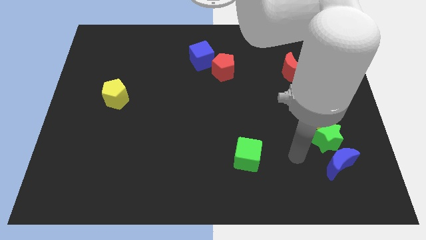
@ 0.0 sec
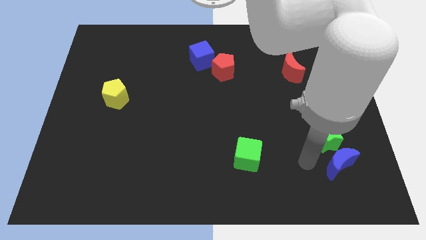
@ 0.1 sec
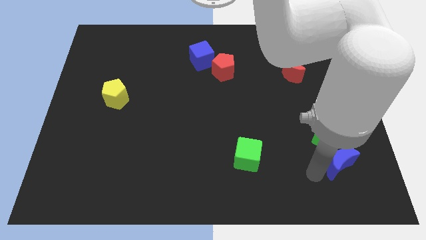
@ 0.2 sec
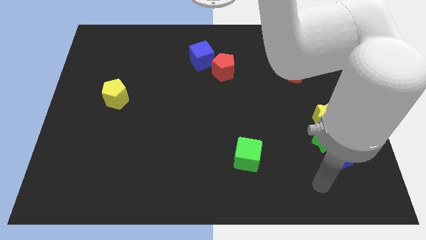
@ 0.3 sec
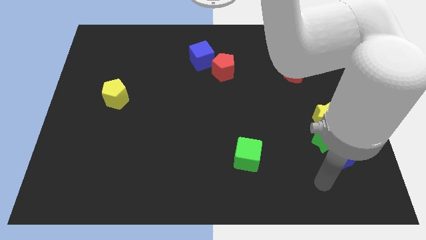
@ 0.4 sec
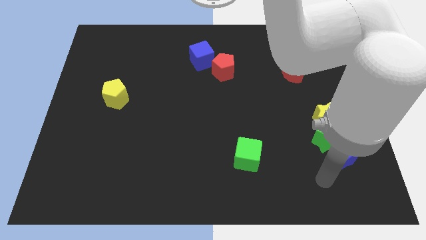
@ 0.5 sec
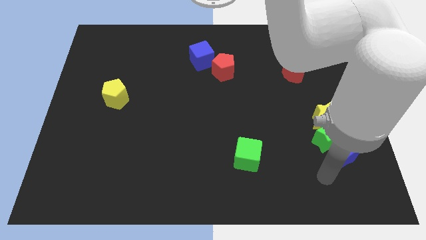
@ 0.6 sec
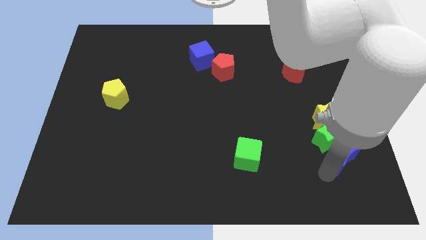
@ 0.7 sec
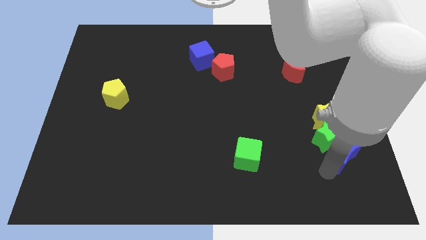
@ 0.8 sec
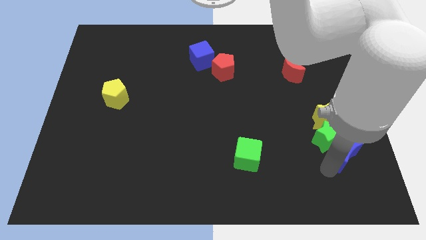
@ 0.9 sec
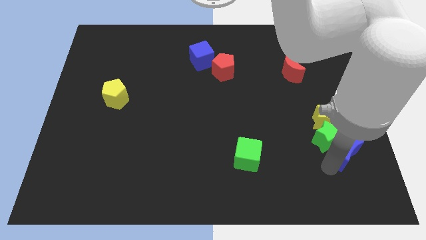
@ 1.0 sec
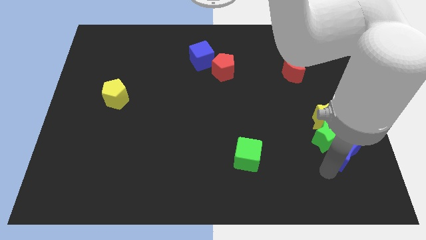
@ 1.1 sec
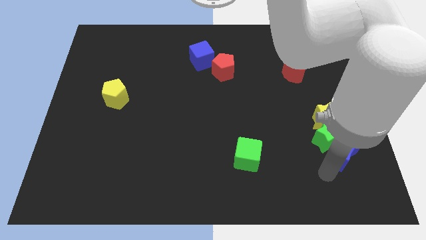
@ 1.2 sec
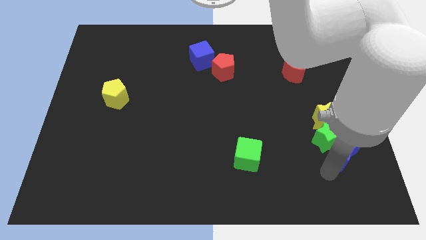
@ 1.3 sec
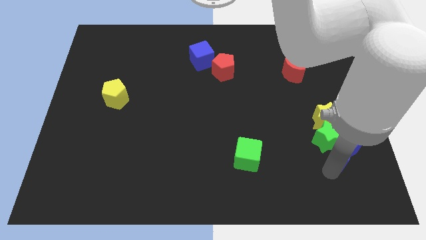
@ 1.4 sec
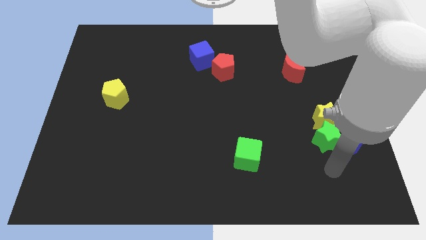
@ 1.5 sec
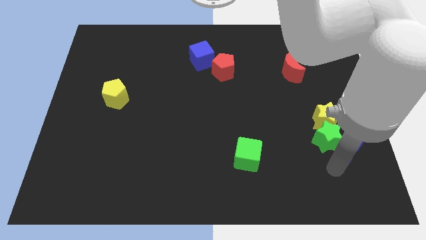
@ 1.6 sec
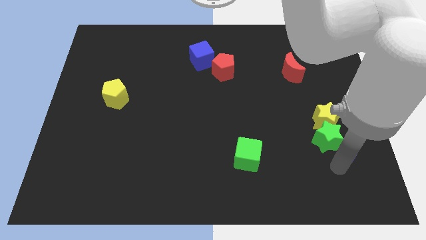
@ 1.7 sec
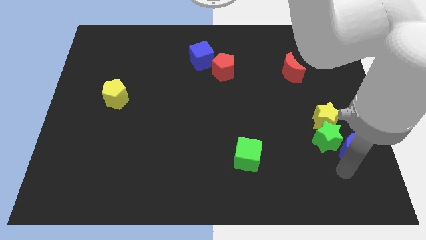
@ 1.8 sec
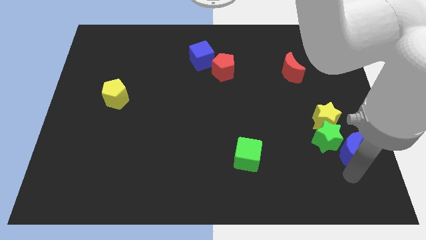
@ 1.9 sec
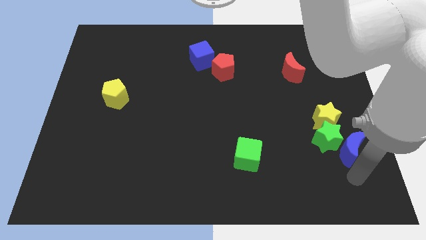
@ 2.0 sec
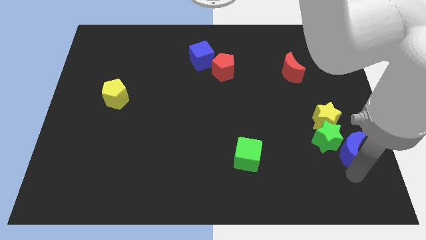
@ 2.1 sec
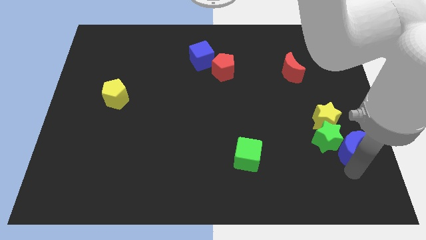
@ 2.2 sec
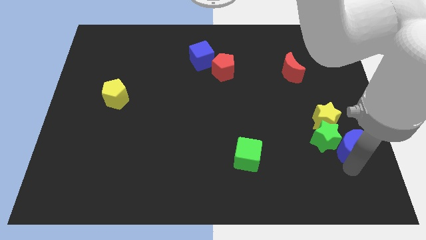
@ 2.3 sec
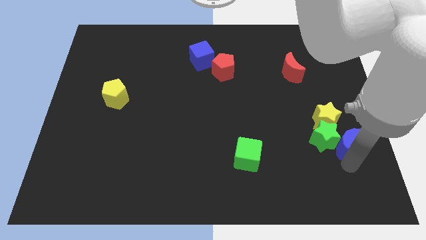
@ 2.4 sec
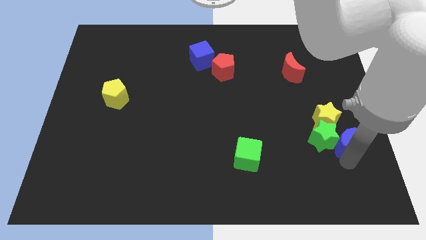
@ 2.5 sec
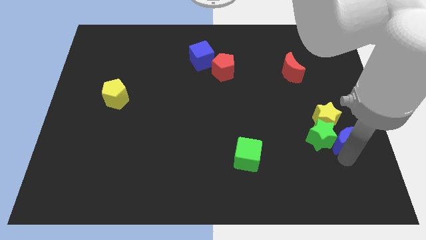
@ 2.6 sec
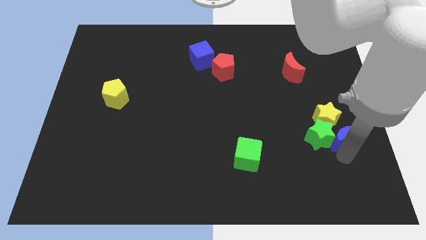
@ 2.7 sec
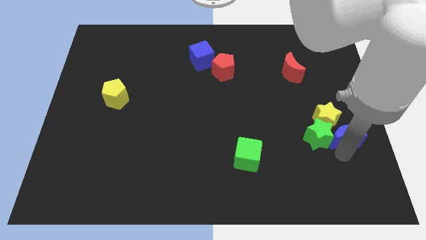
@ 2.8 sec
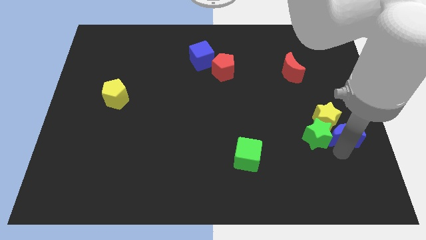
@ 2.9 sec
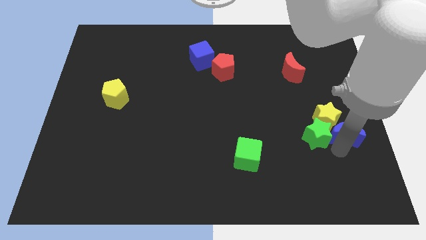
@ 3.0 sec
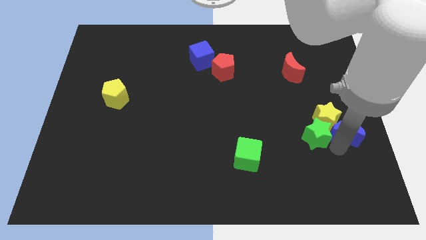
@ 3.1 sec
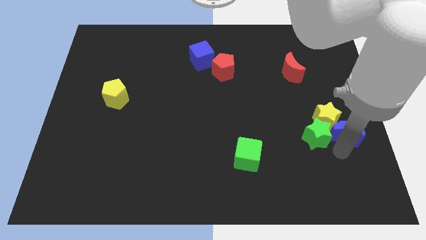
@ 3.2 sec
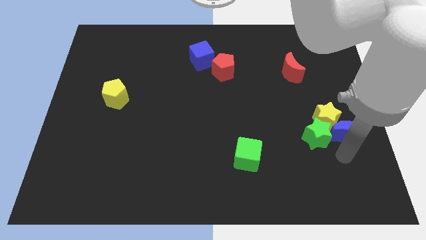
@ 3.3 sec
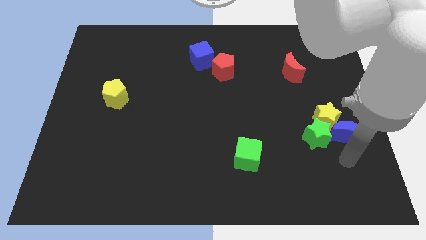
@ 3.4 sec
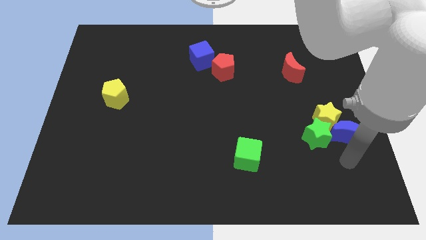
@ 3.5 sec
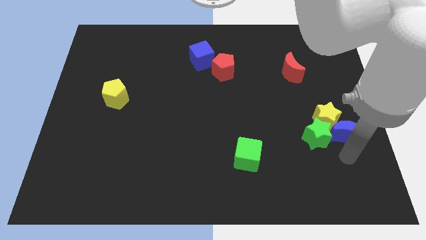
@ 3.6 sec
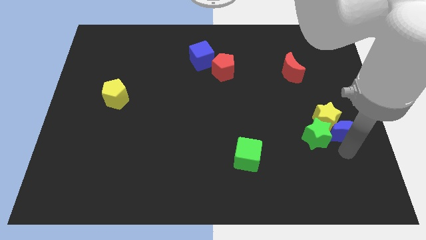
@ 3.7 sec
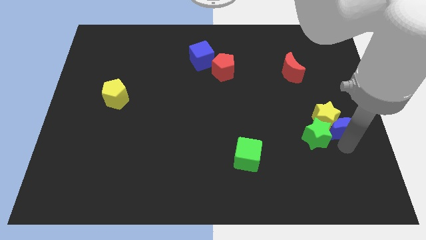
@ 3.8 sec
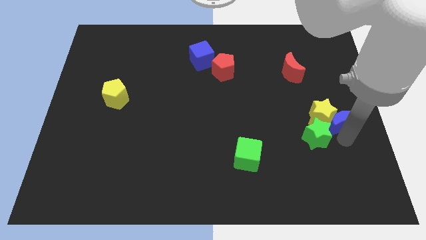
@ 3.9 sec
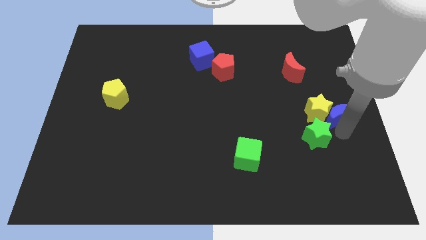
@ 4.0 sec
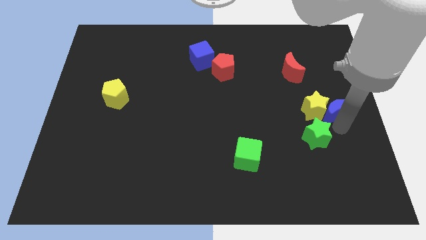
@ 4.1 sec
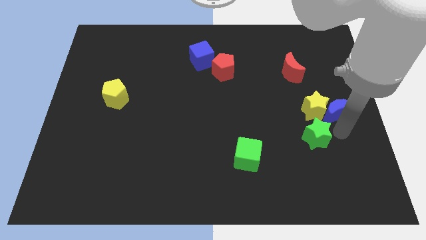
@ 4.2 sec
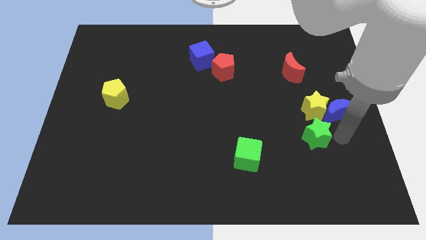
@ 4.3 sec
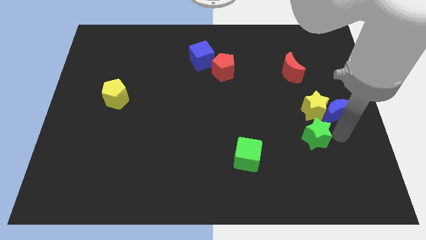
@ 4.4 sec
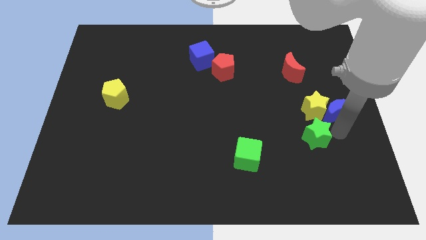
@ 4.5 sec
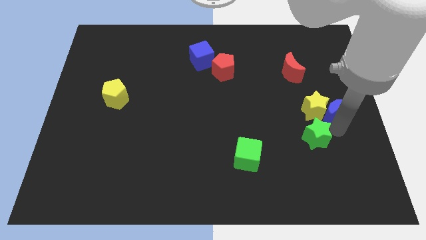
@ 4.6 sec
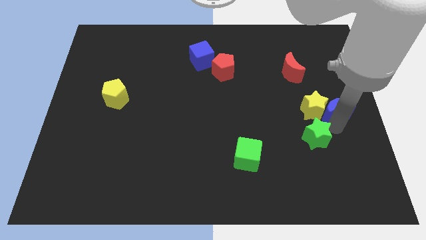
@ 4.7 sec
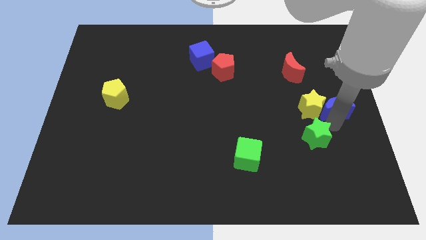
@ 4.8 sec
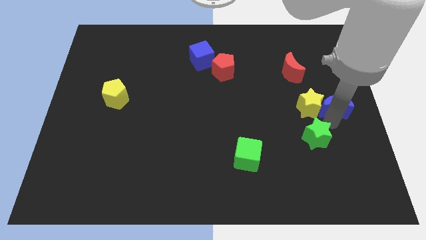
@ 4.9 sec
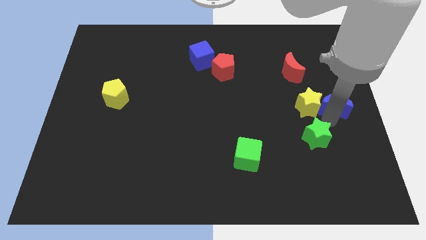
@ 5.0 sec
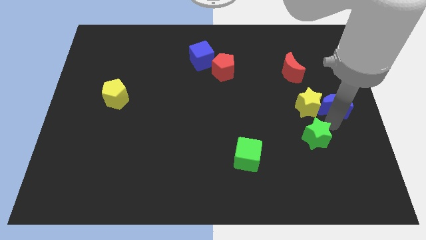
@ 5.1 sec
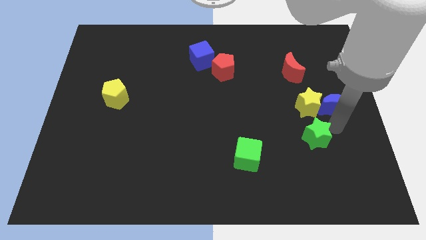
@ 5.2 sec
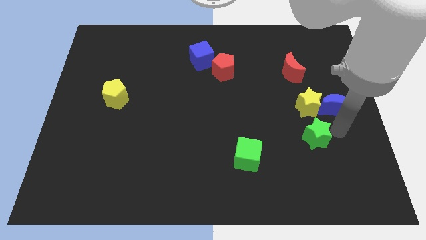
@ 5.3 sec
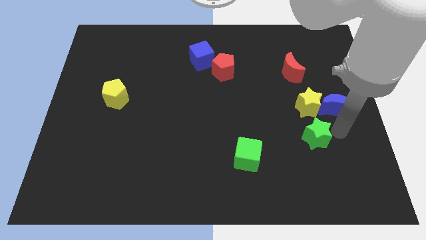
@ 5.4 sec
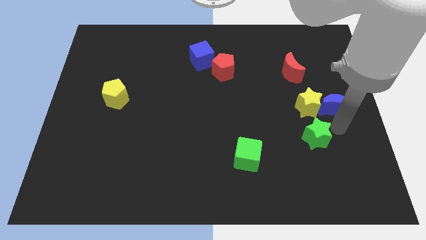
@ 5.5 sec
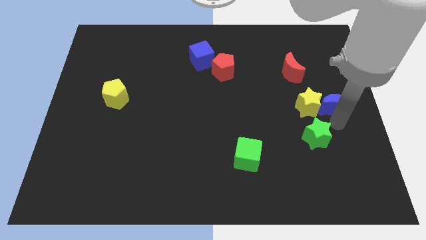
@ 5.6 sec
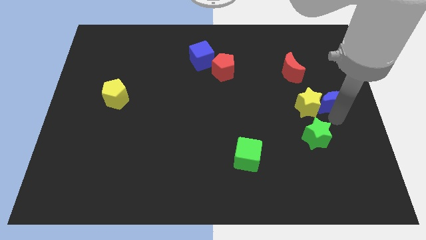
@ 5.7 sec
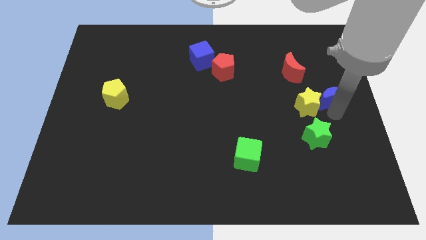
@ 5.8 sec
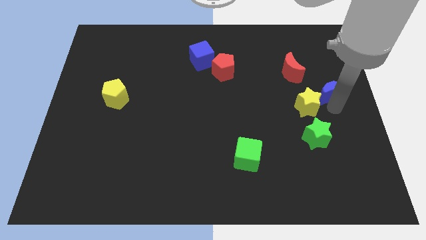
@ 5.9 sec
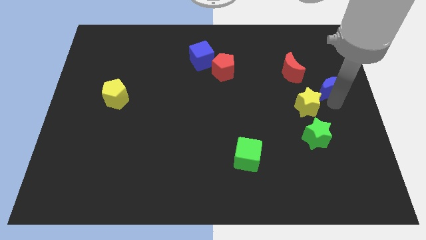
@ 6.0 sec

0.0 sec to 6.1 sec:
move the blue moon up

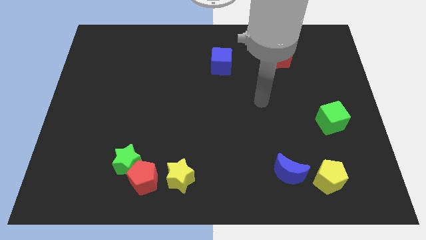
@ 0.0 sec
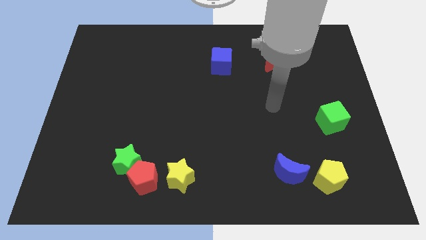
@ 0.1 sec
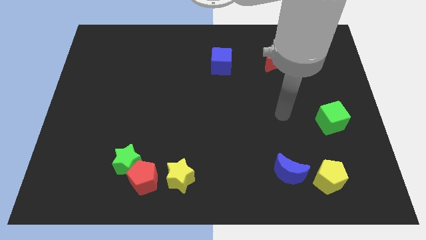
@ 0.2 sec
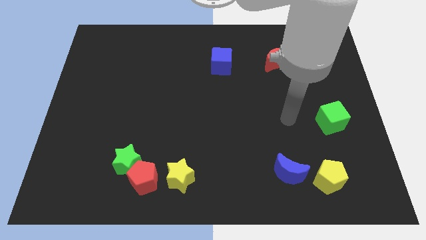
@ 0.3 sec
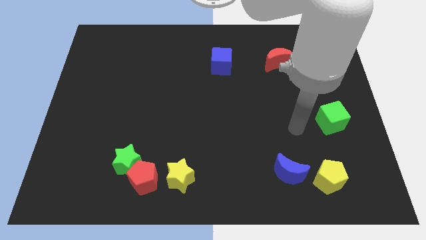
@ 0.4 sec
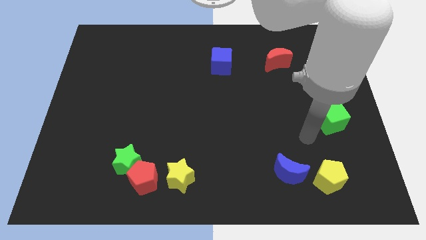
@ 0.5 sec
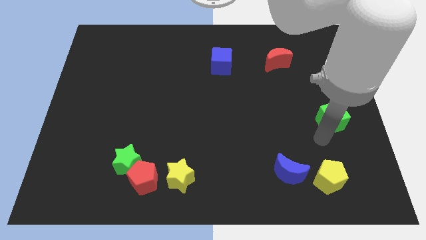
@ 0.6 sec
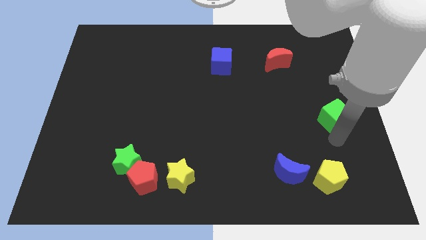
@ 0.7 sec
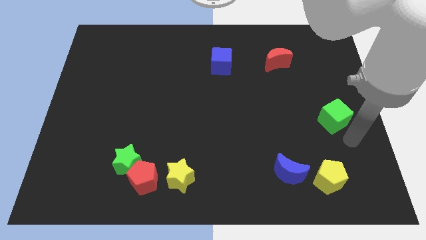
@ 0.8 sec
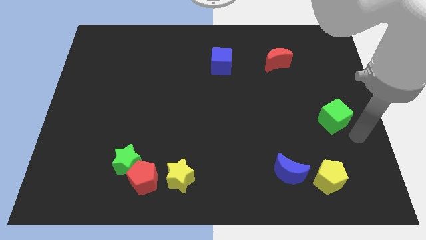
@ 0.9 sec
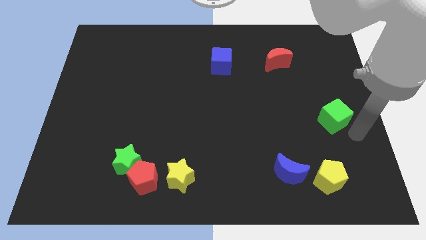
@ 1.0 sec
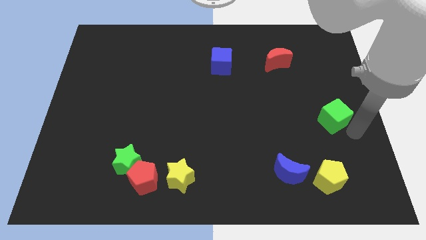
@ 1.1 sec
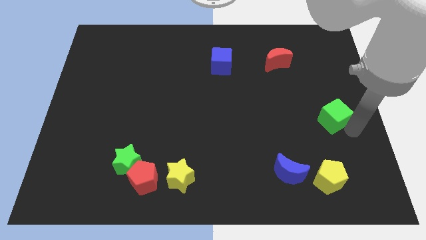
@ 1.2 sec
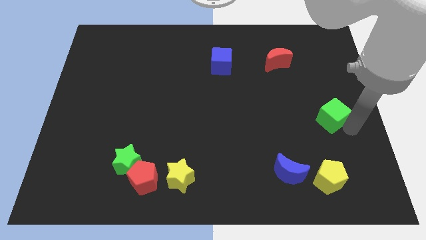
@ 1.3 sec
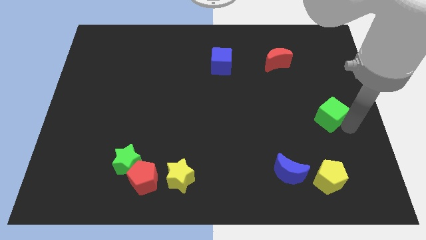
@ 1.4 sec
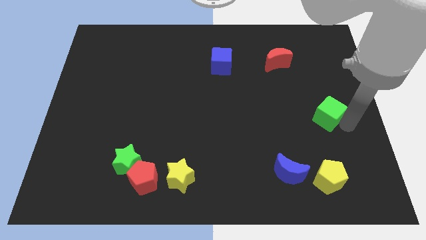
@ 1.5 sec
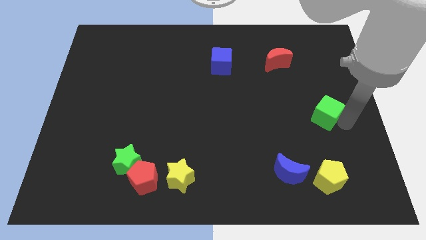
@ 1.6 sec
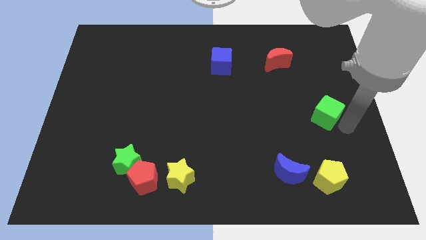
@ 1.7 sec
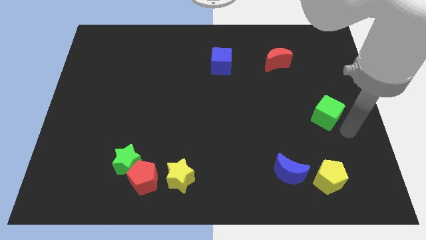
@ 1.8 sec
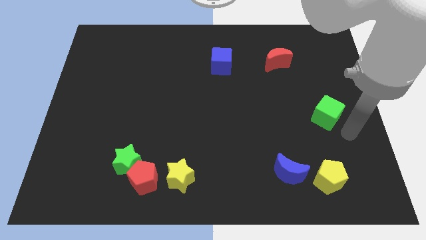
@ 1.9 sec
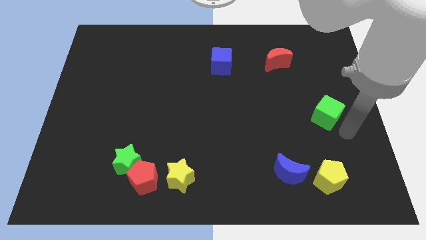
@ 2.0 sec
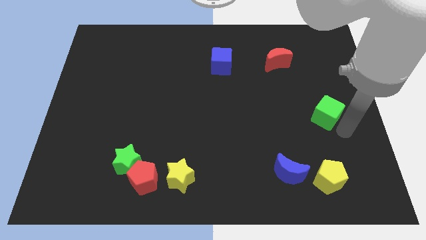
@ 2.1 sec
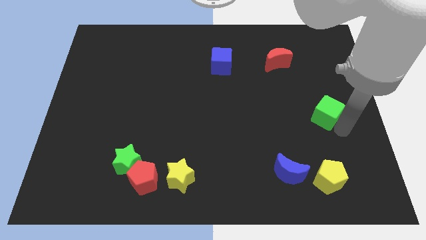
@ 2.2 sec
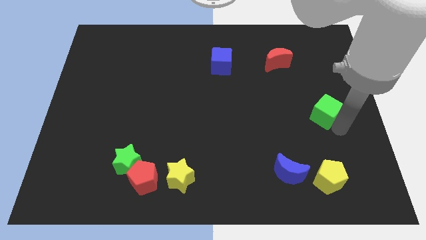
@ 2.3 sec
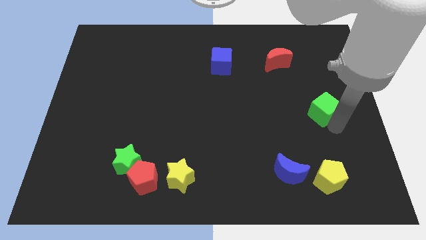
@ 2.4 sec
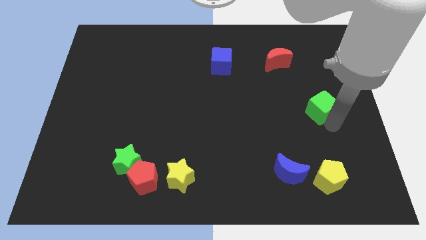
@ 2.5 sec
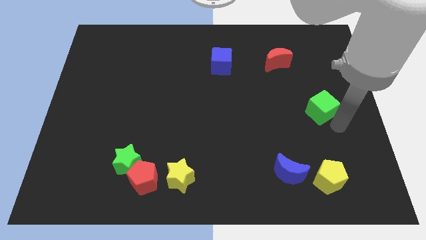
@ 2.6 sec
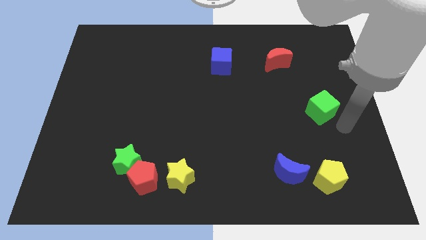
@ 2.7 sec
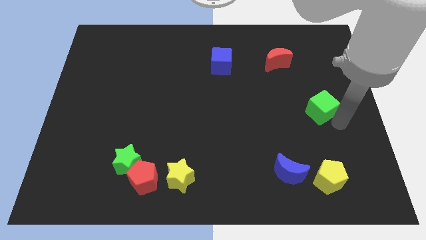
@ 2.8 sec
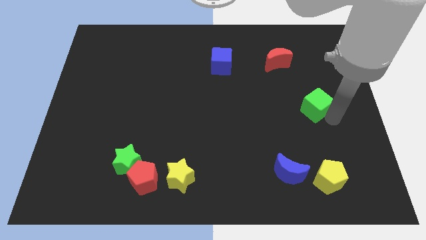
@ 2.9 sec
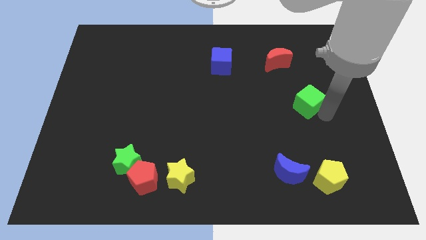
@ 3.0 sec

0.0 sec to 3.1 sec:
move the green cube upwards and to the left diagonally a little
